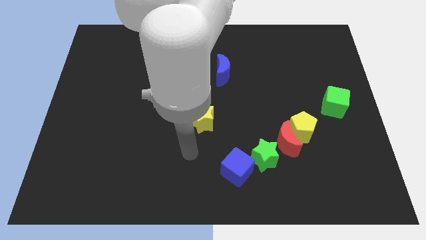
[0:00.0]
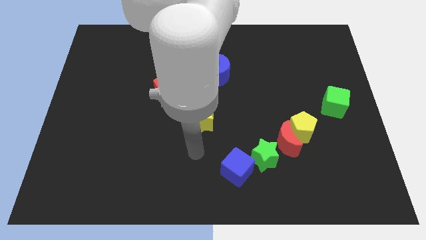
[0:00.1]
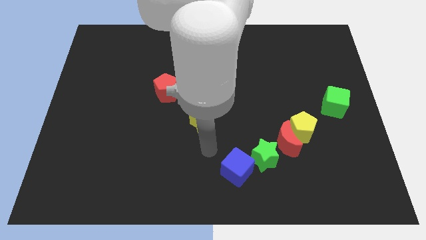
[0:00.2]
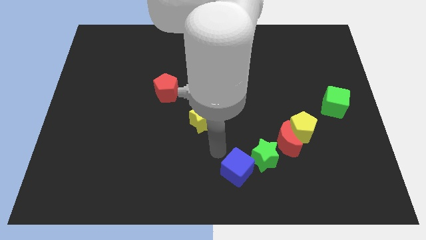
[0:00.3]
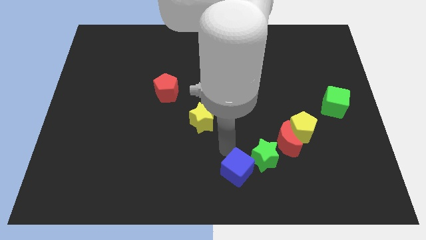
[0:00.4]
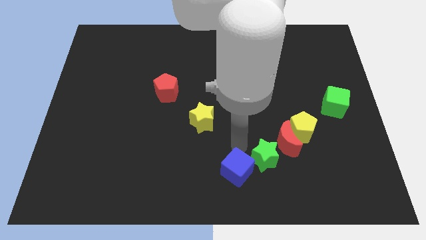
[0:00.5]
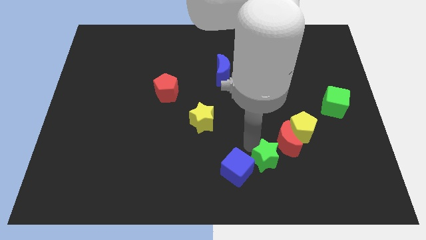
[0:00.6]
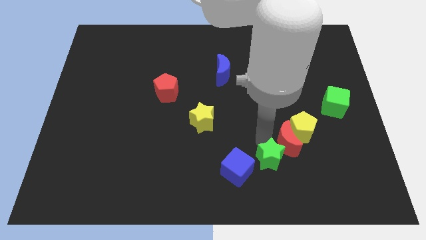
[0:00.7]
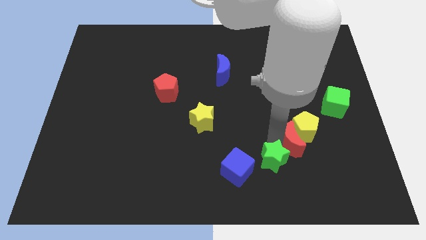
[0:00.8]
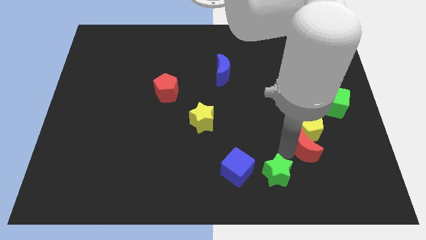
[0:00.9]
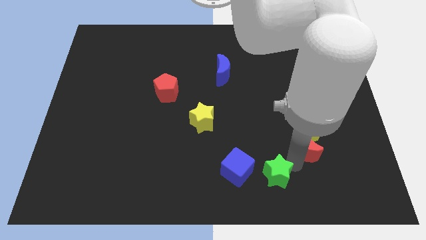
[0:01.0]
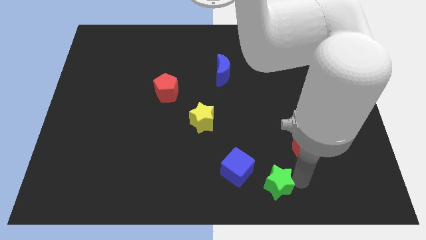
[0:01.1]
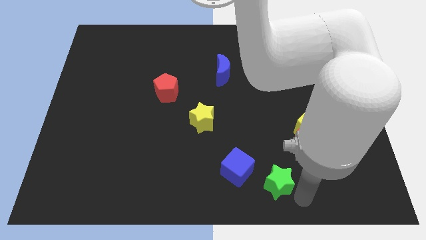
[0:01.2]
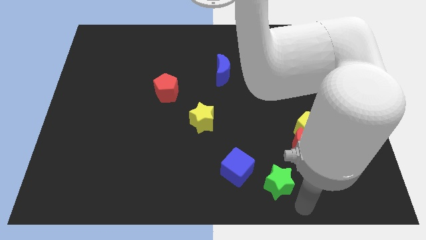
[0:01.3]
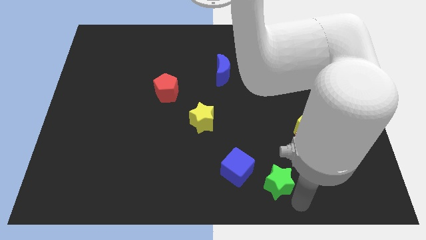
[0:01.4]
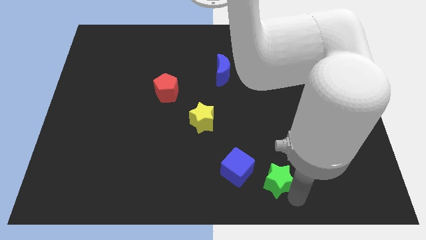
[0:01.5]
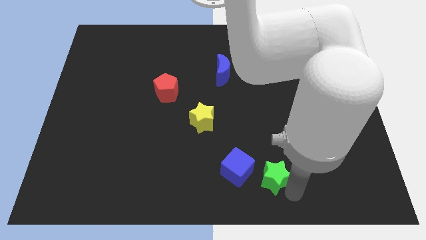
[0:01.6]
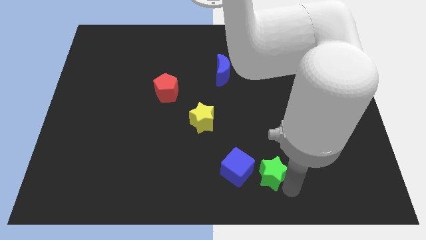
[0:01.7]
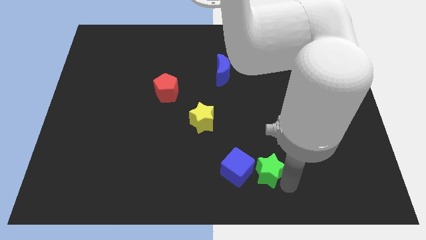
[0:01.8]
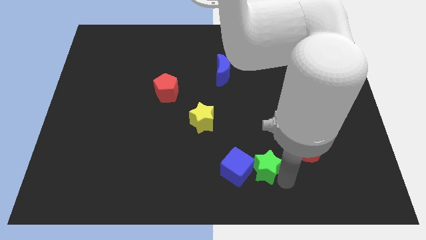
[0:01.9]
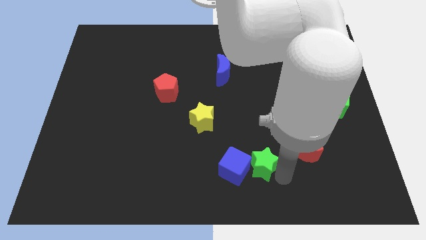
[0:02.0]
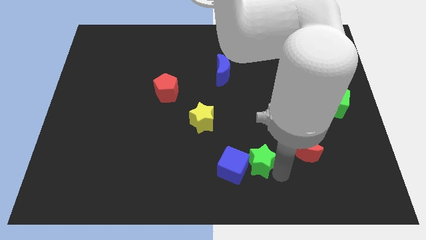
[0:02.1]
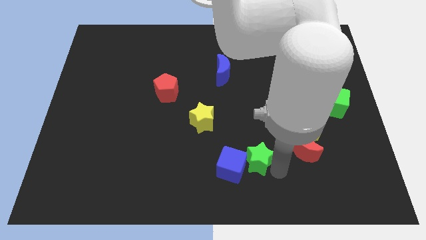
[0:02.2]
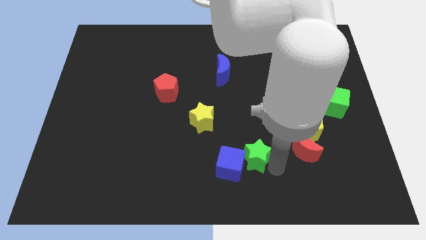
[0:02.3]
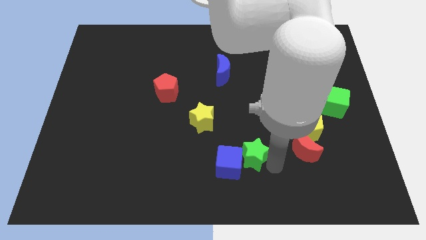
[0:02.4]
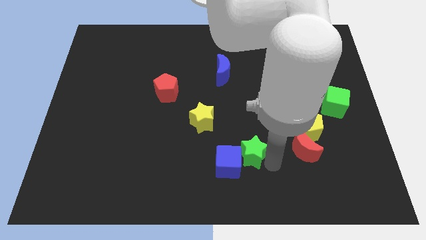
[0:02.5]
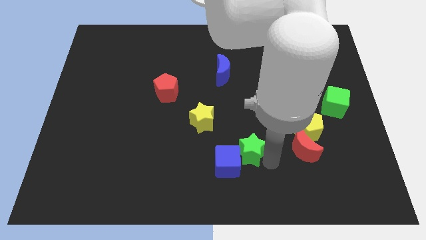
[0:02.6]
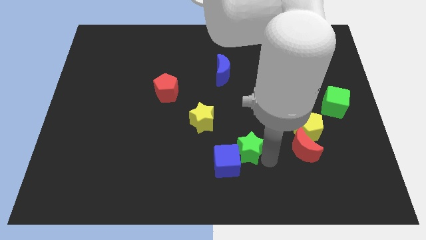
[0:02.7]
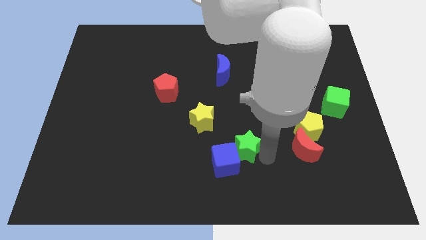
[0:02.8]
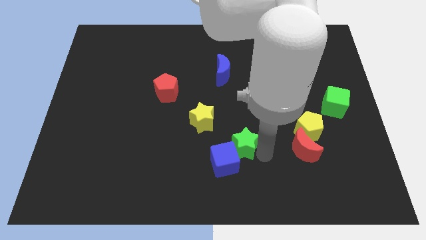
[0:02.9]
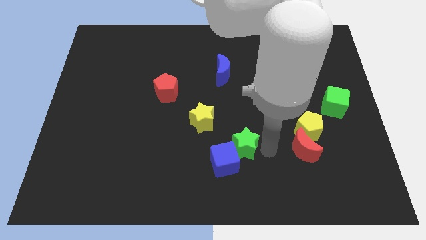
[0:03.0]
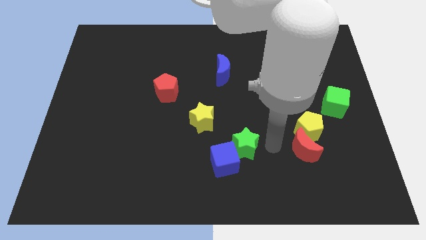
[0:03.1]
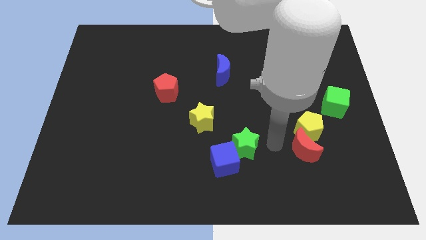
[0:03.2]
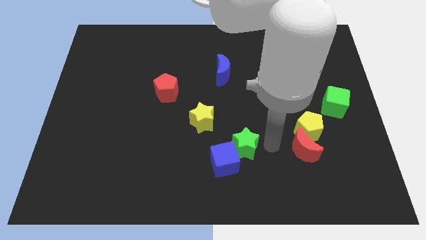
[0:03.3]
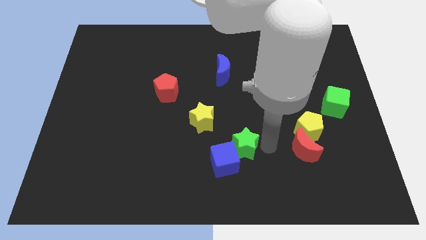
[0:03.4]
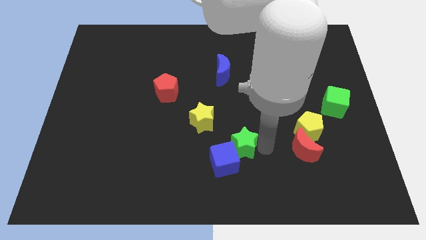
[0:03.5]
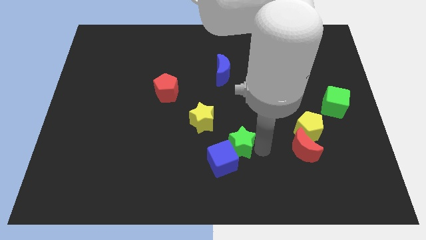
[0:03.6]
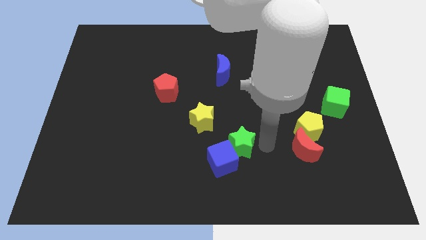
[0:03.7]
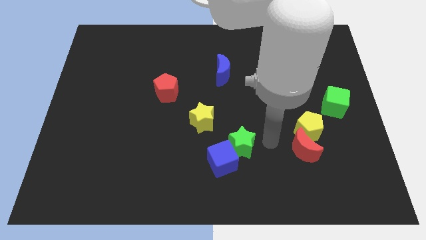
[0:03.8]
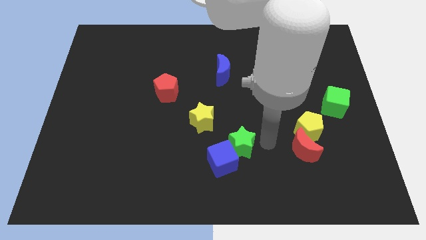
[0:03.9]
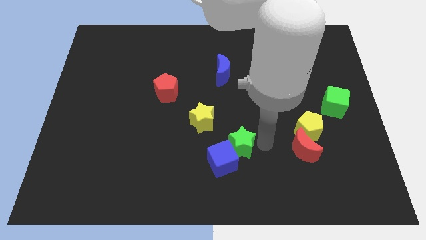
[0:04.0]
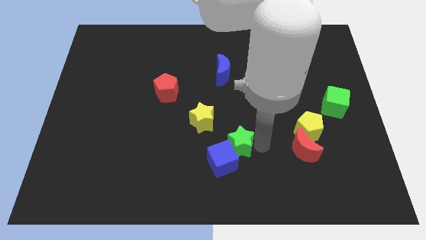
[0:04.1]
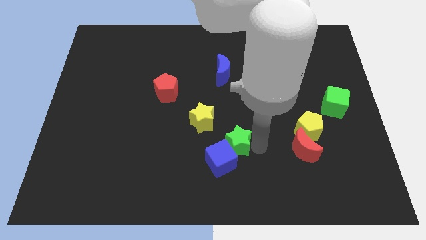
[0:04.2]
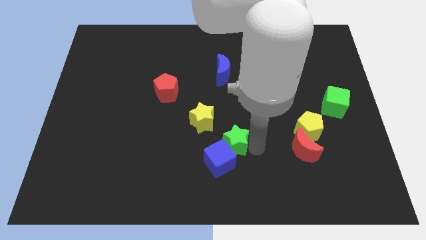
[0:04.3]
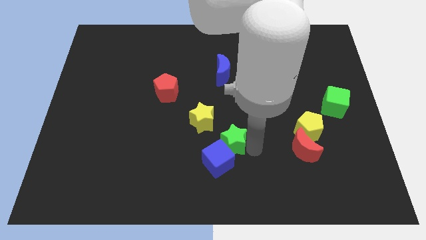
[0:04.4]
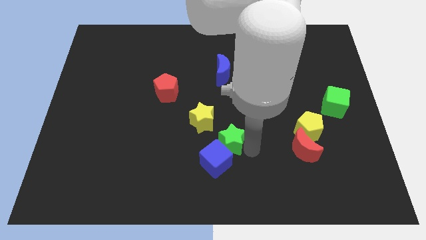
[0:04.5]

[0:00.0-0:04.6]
slide the green star a little bit left

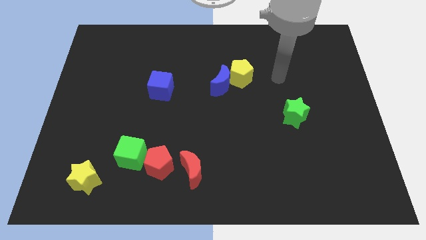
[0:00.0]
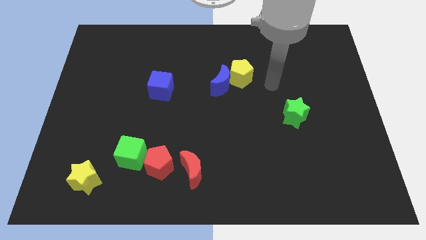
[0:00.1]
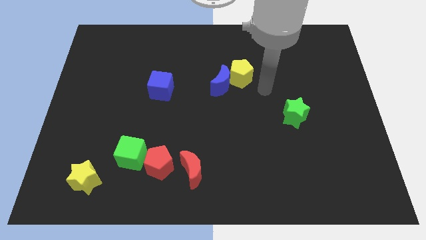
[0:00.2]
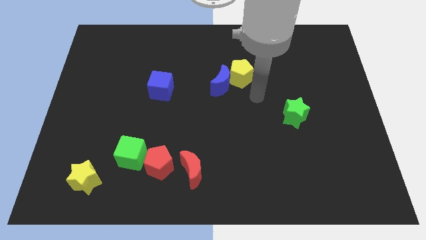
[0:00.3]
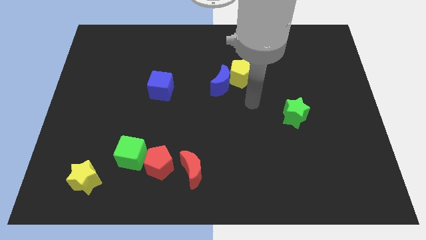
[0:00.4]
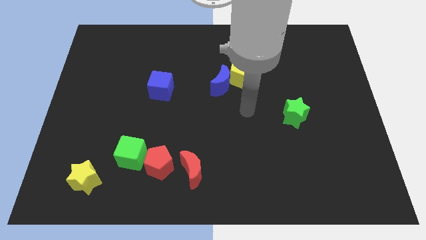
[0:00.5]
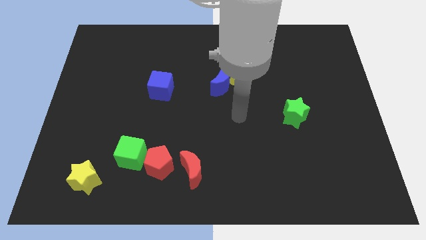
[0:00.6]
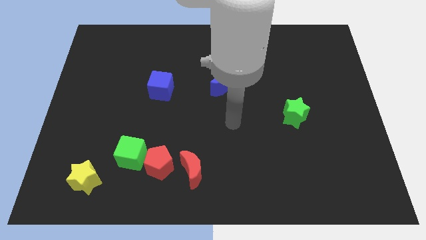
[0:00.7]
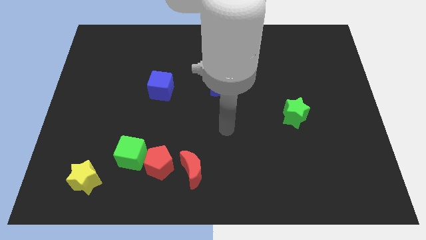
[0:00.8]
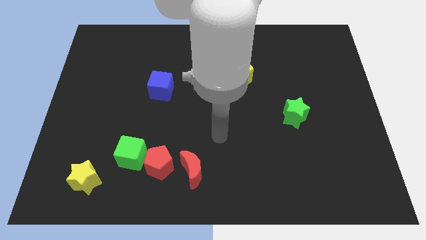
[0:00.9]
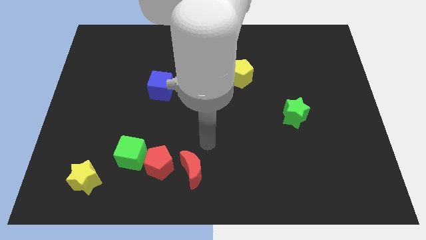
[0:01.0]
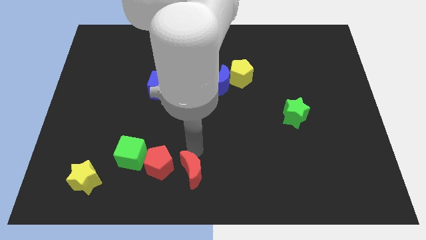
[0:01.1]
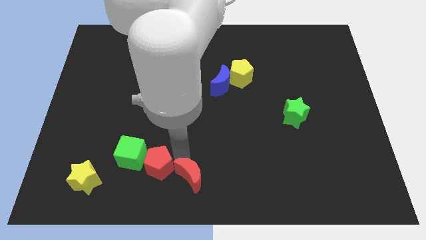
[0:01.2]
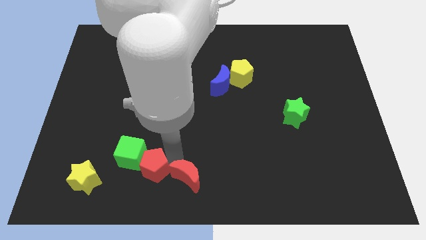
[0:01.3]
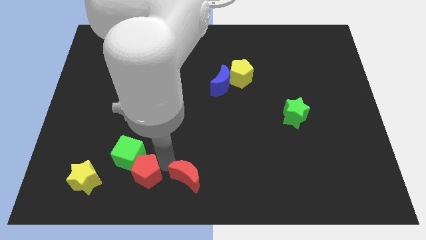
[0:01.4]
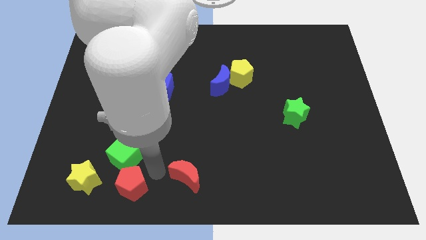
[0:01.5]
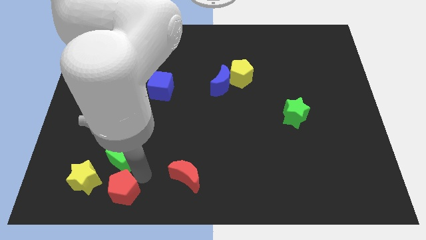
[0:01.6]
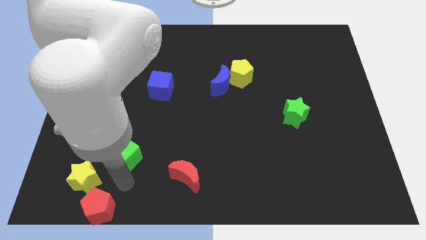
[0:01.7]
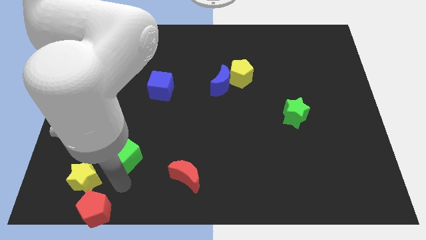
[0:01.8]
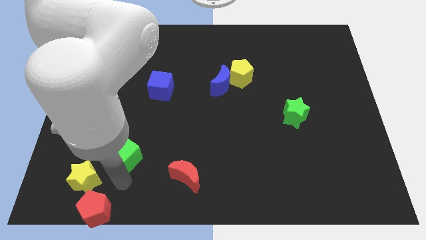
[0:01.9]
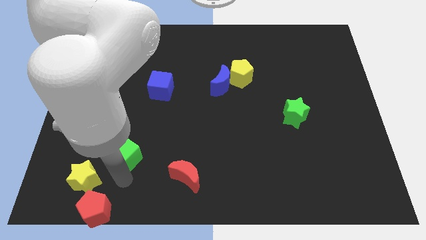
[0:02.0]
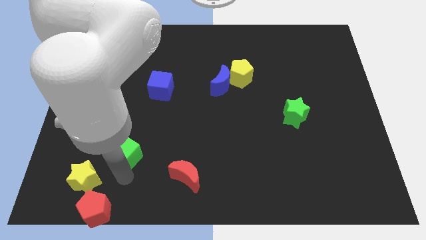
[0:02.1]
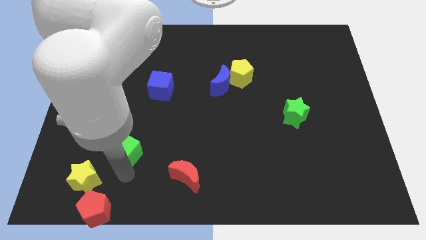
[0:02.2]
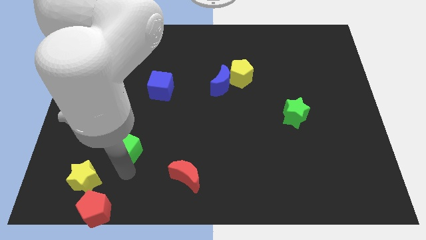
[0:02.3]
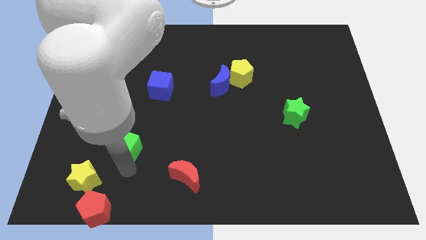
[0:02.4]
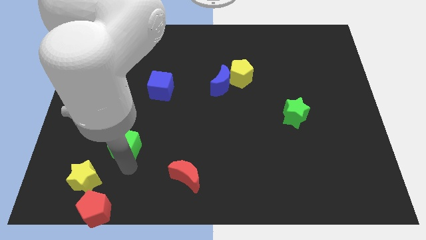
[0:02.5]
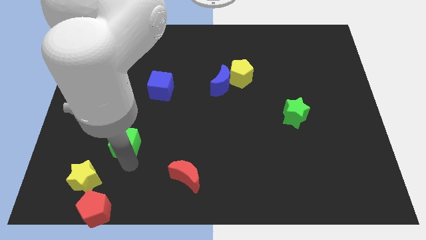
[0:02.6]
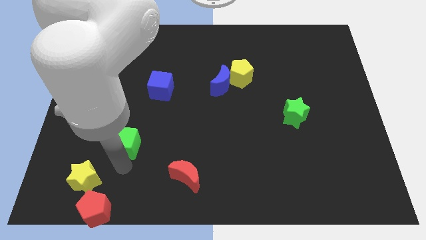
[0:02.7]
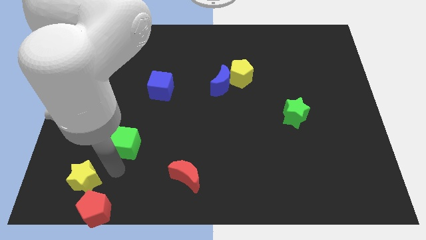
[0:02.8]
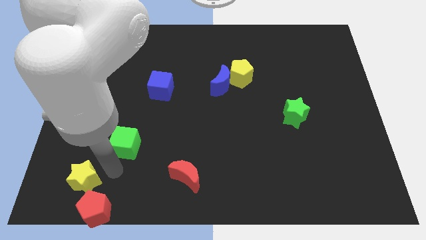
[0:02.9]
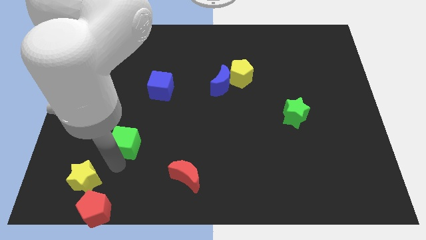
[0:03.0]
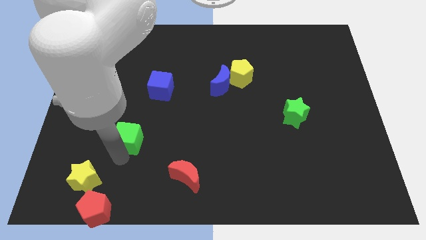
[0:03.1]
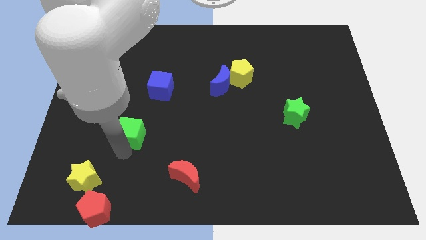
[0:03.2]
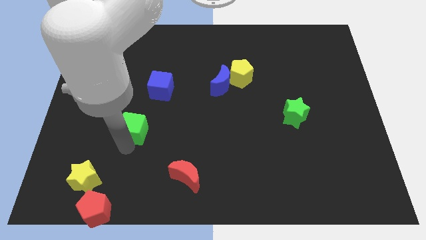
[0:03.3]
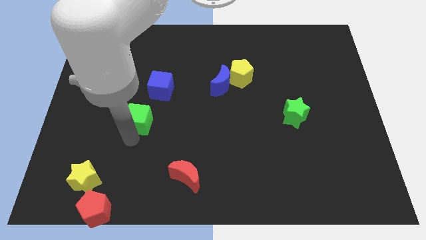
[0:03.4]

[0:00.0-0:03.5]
slightly slide the green cube upwards

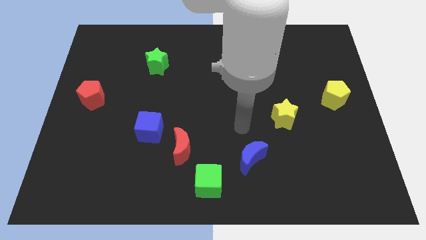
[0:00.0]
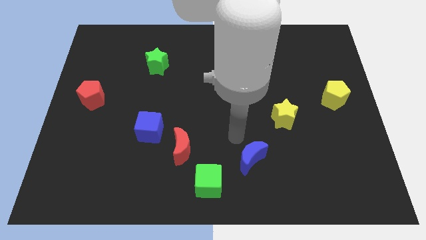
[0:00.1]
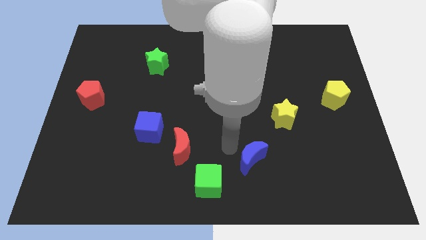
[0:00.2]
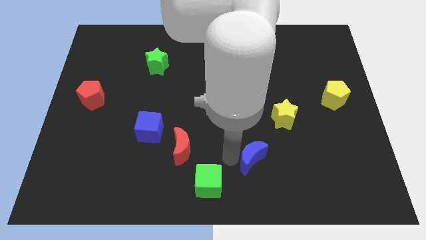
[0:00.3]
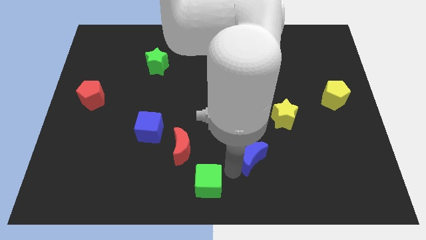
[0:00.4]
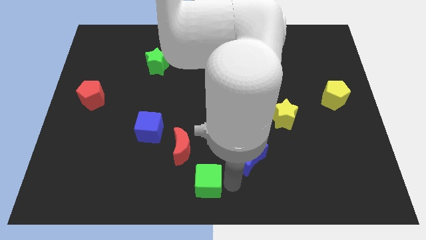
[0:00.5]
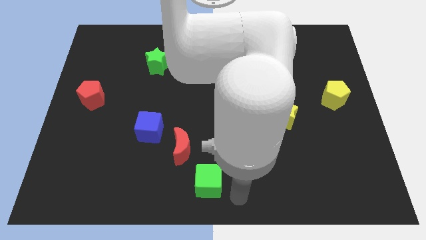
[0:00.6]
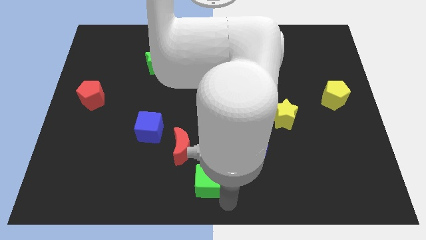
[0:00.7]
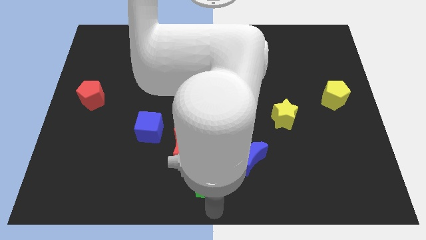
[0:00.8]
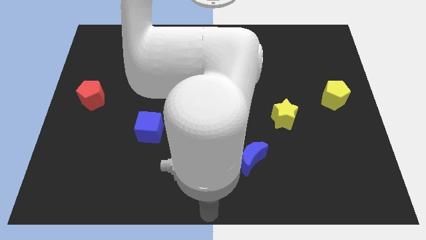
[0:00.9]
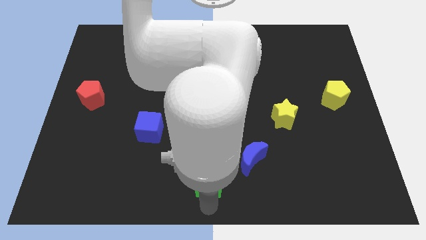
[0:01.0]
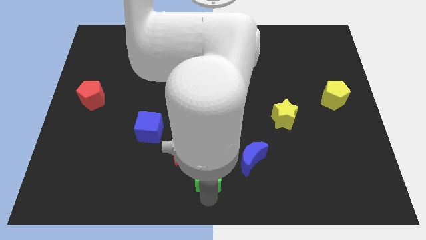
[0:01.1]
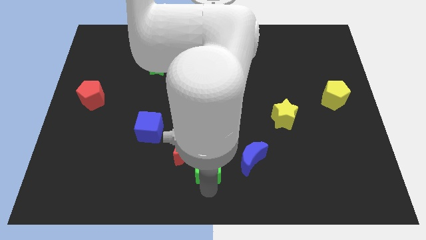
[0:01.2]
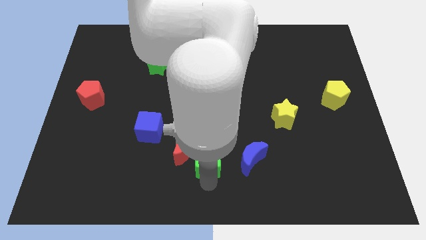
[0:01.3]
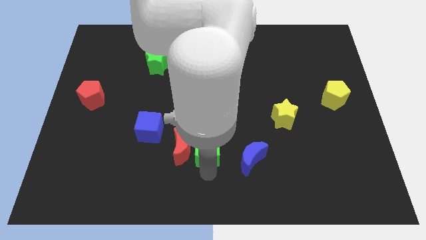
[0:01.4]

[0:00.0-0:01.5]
slide the green cube upwards somewhat
